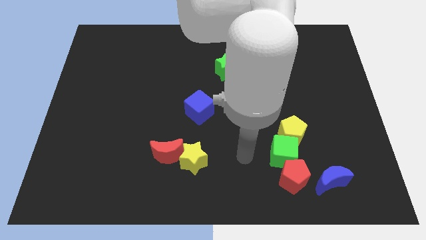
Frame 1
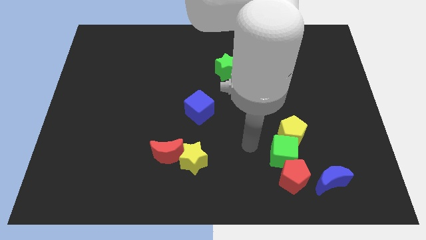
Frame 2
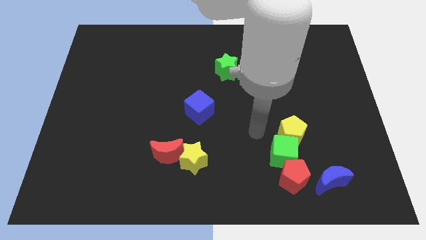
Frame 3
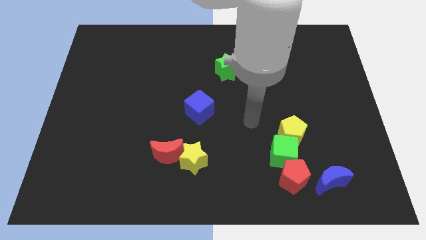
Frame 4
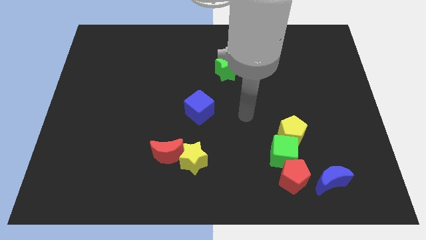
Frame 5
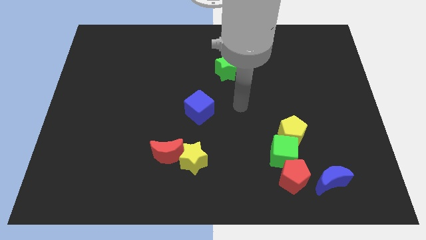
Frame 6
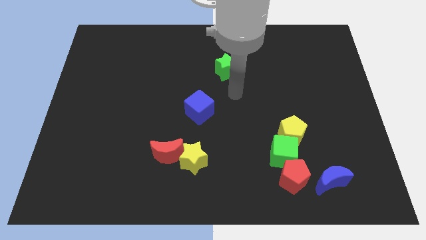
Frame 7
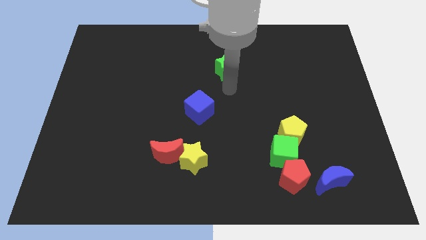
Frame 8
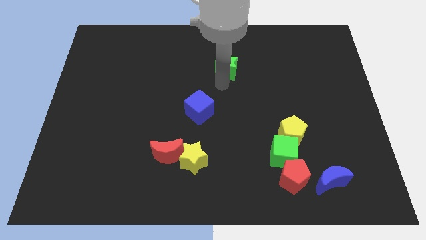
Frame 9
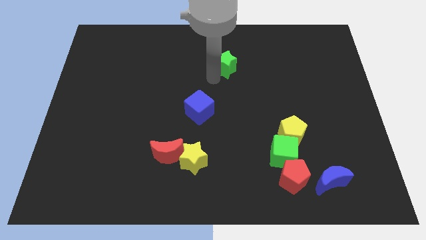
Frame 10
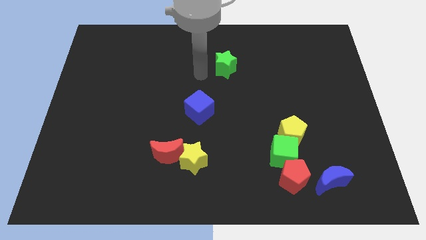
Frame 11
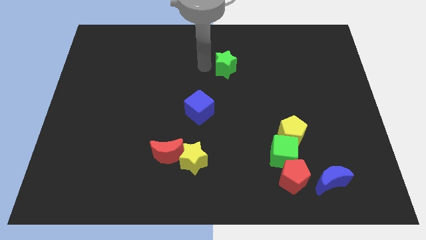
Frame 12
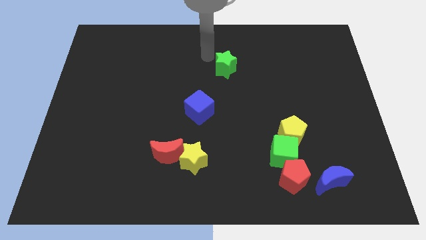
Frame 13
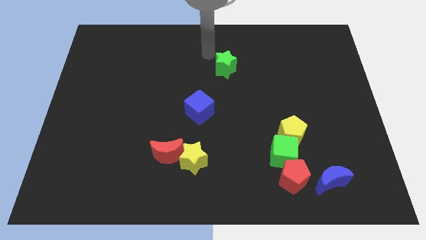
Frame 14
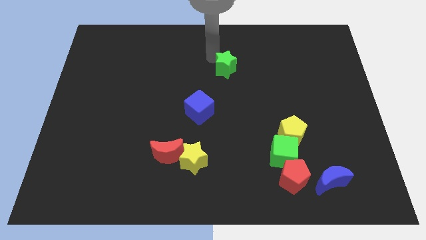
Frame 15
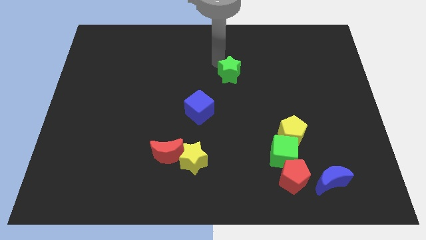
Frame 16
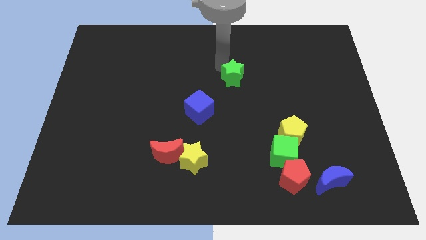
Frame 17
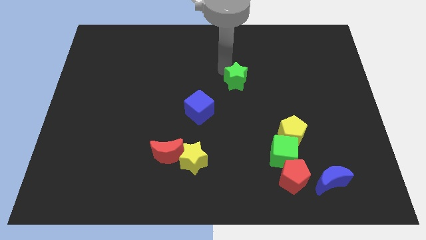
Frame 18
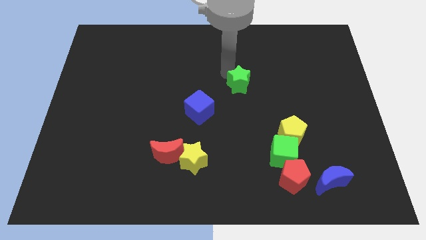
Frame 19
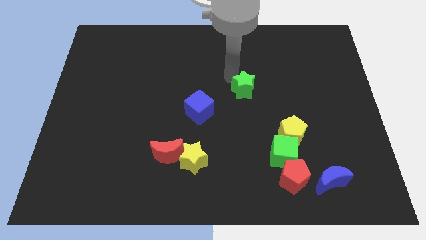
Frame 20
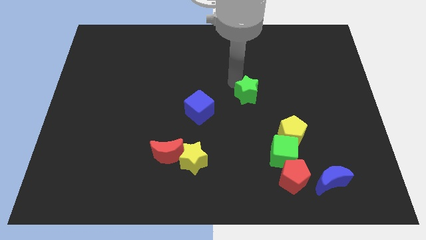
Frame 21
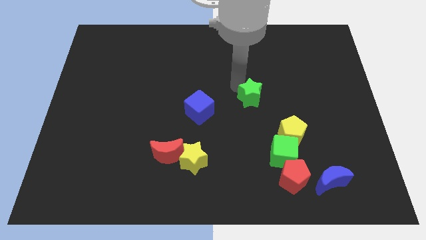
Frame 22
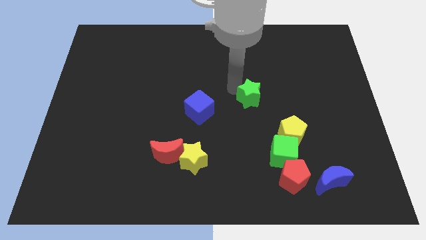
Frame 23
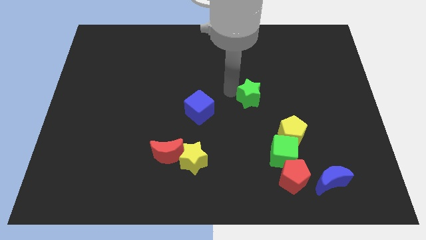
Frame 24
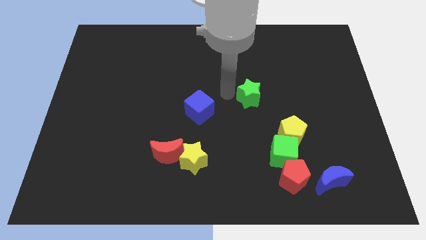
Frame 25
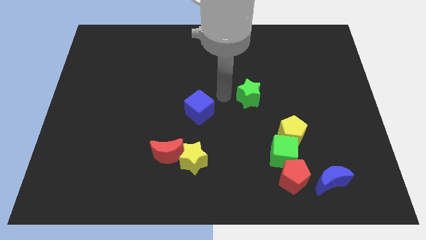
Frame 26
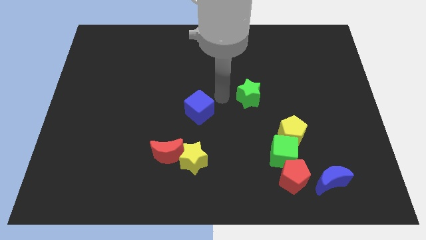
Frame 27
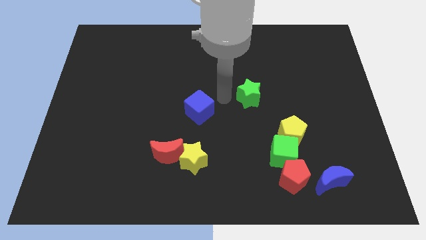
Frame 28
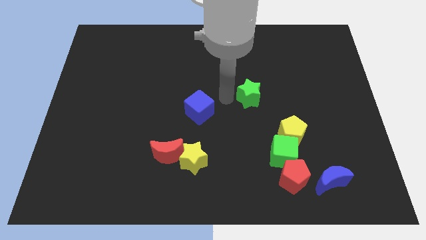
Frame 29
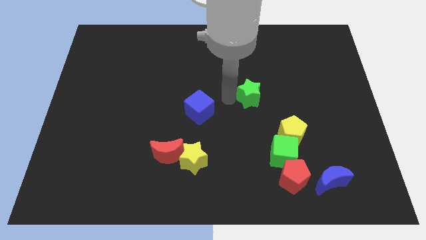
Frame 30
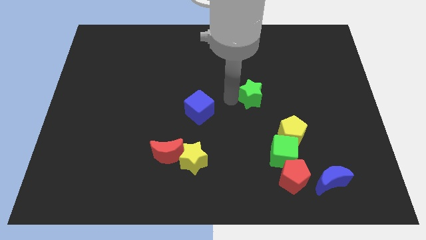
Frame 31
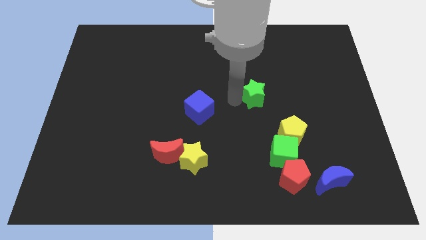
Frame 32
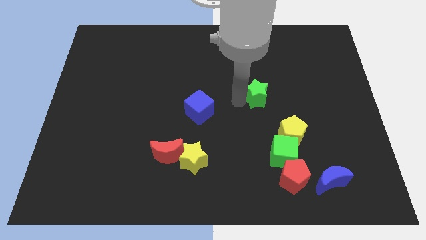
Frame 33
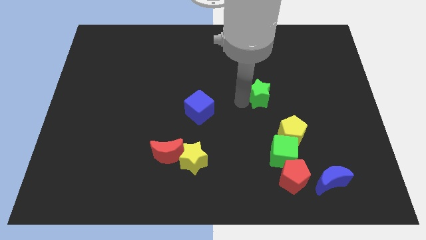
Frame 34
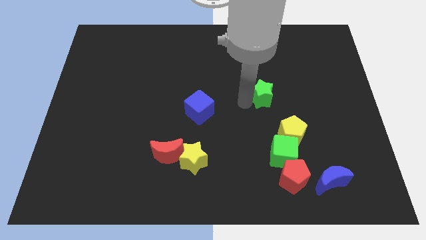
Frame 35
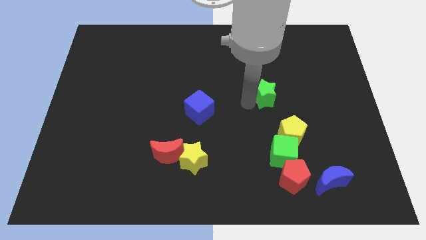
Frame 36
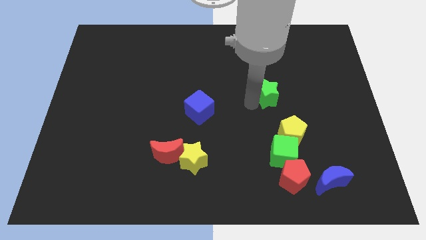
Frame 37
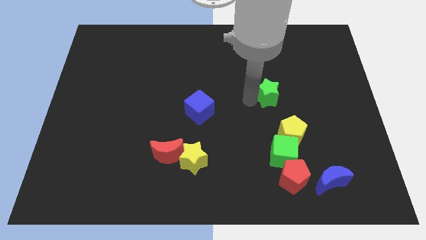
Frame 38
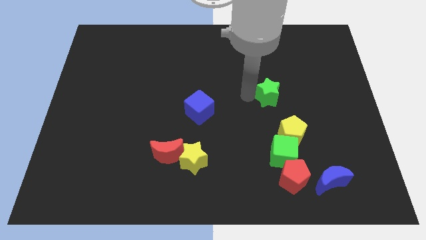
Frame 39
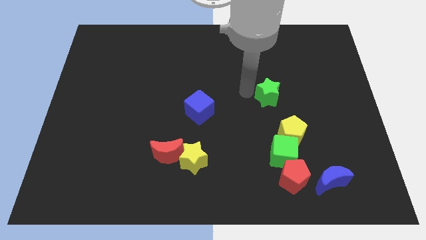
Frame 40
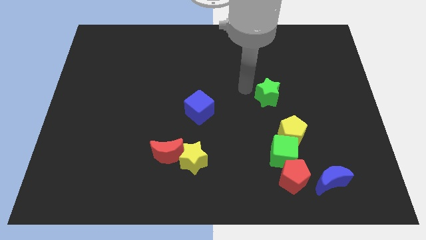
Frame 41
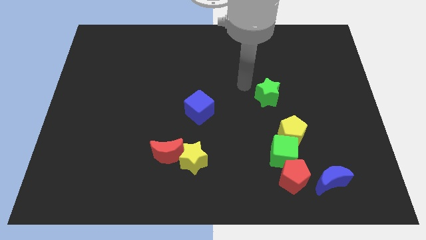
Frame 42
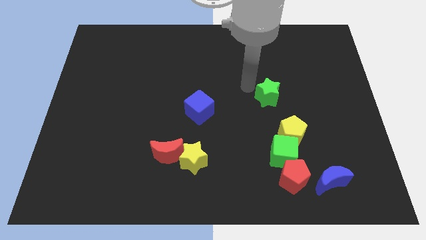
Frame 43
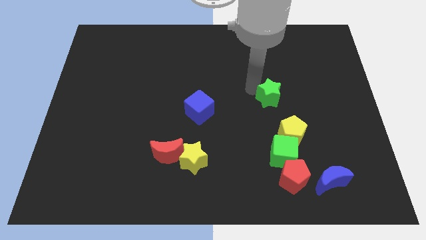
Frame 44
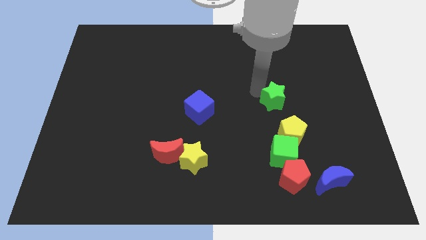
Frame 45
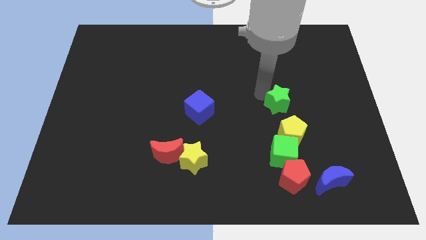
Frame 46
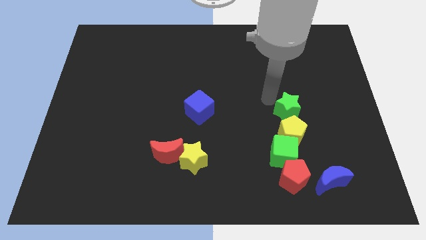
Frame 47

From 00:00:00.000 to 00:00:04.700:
move the green star diagonally up and to the right of the yellow pentagon

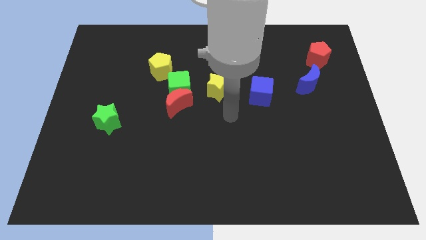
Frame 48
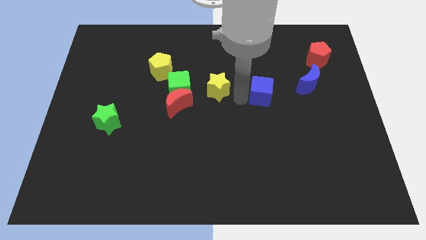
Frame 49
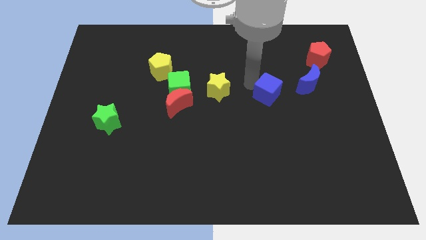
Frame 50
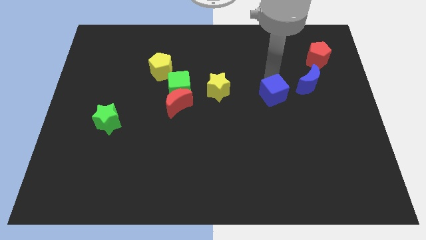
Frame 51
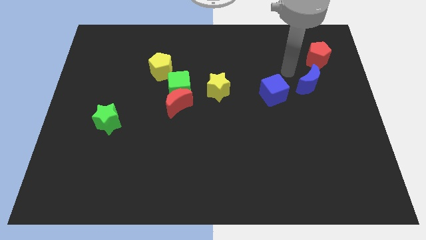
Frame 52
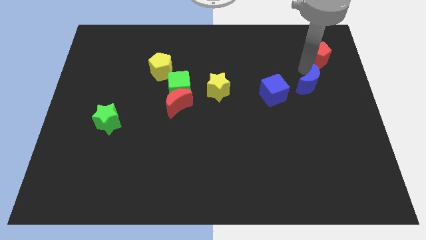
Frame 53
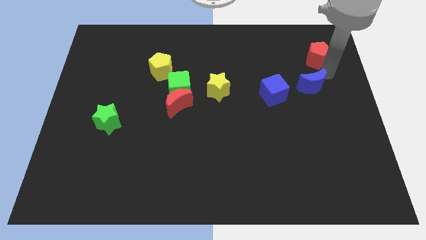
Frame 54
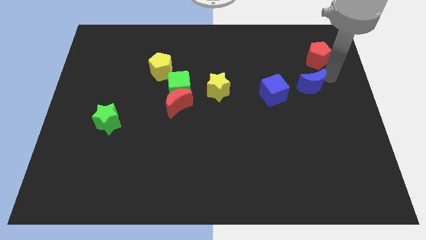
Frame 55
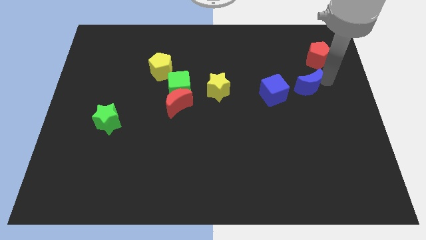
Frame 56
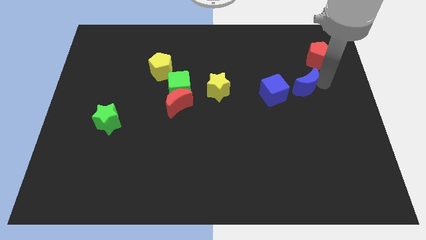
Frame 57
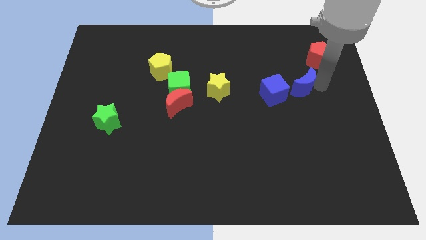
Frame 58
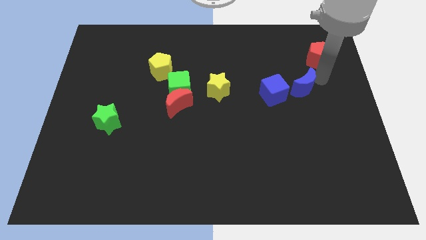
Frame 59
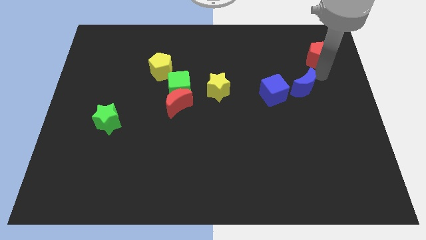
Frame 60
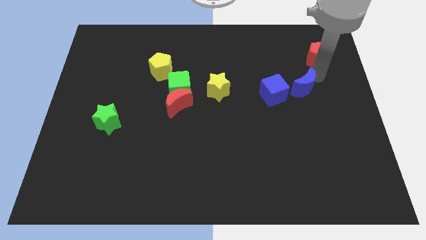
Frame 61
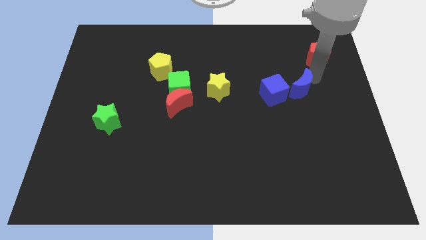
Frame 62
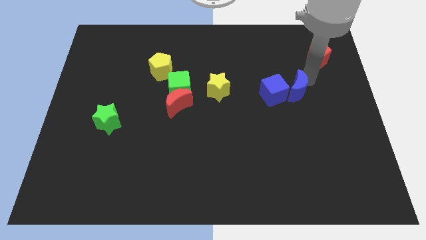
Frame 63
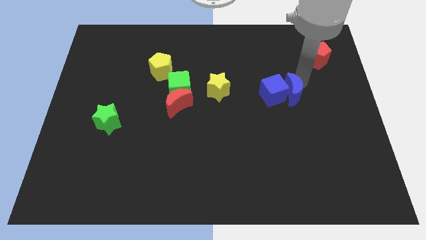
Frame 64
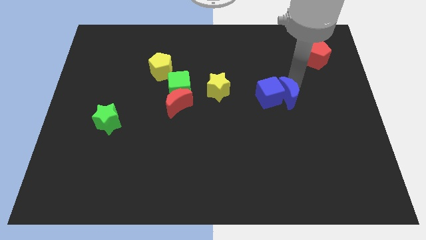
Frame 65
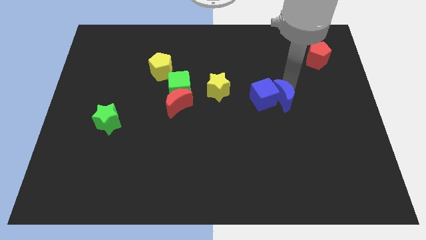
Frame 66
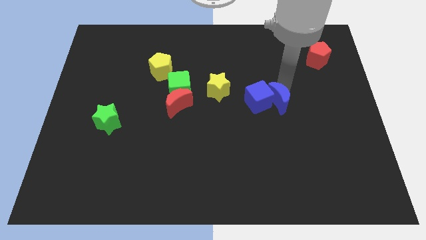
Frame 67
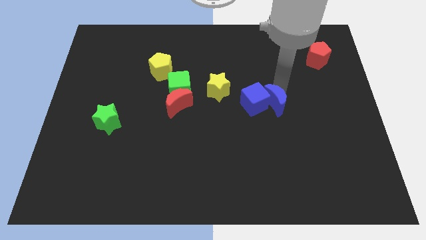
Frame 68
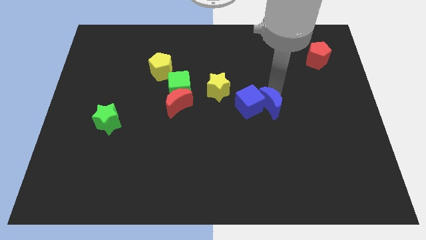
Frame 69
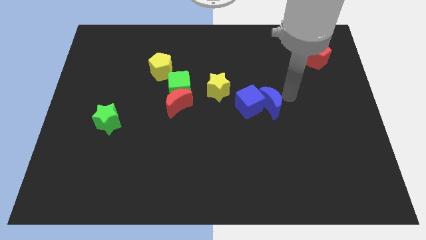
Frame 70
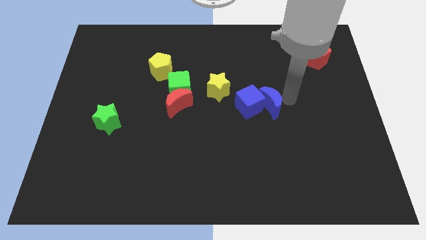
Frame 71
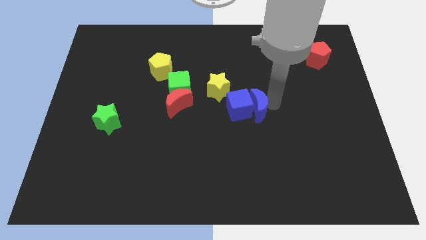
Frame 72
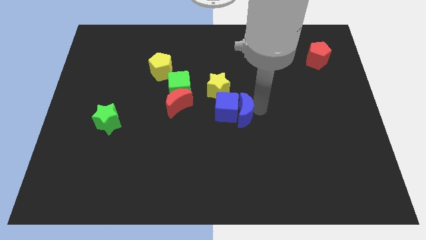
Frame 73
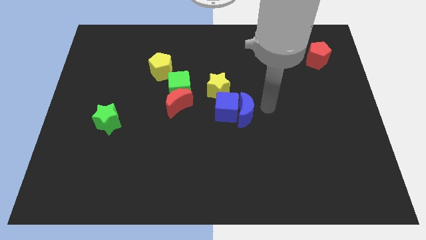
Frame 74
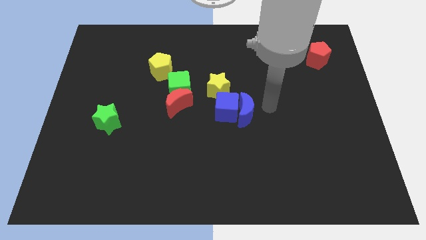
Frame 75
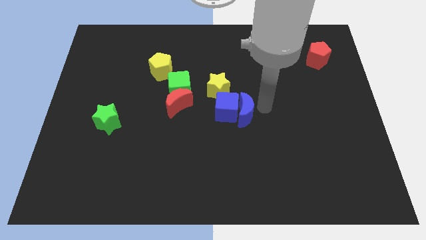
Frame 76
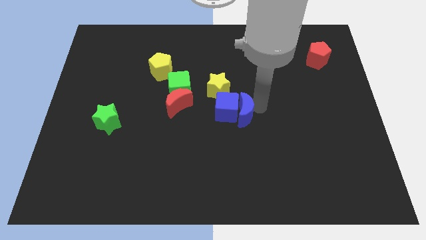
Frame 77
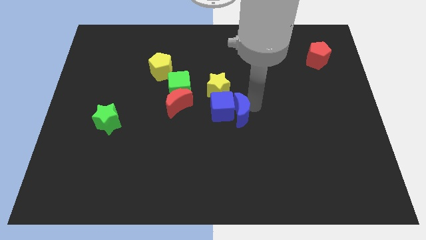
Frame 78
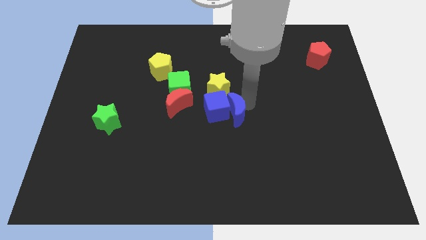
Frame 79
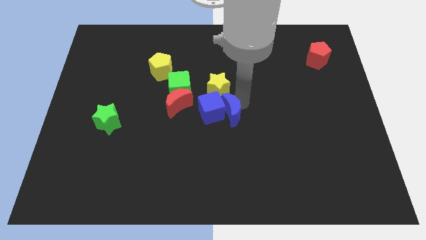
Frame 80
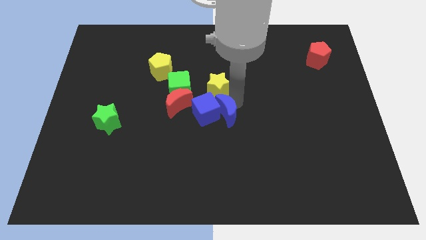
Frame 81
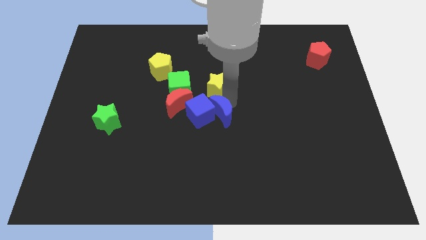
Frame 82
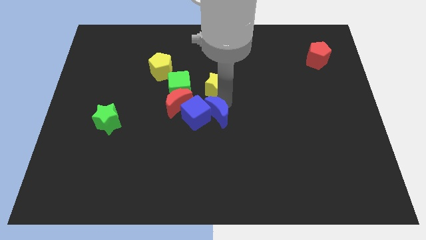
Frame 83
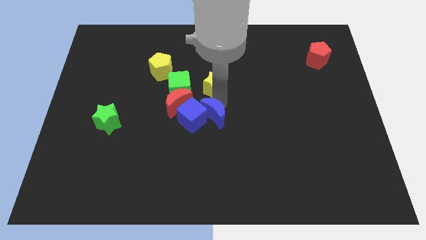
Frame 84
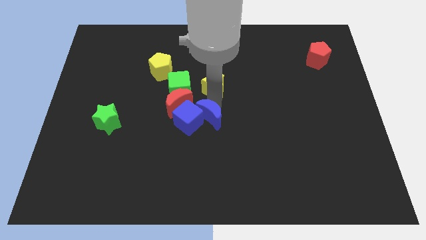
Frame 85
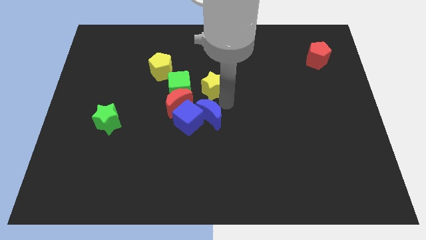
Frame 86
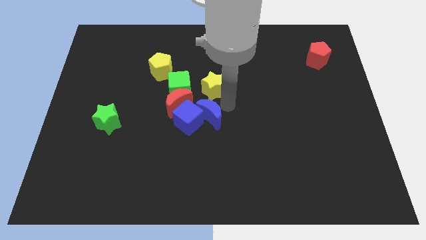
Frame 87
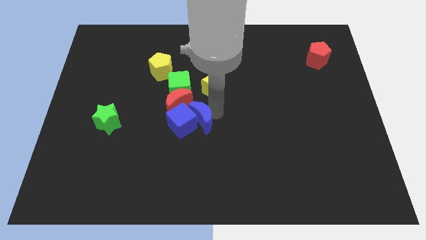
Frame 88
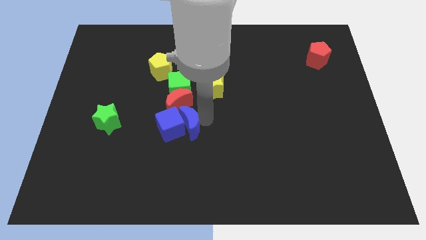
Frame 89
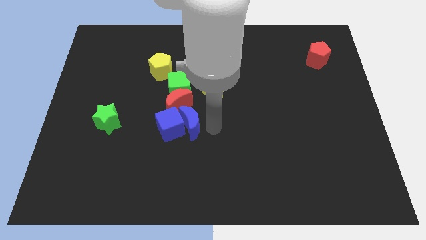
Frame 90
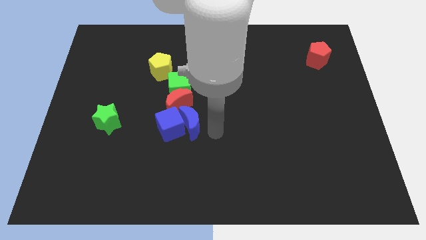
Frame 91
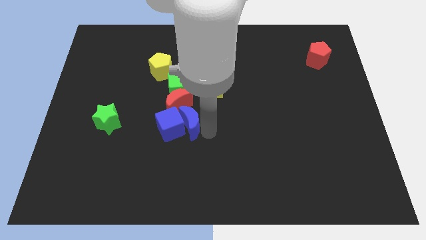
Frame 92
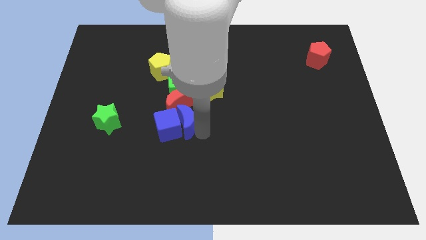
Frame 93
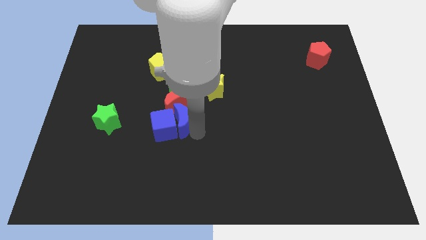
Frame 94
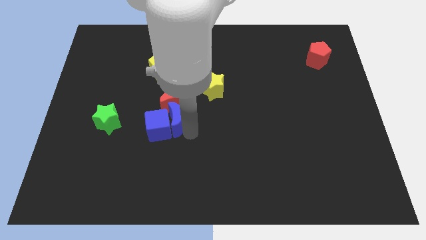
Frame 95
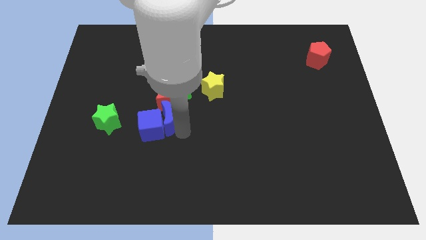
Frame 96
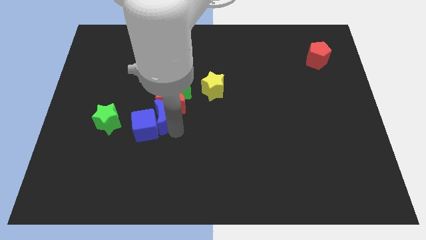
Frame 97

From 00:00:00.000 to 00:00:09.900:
push the blue moon to the bottom of the yellow pentagon
